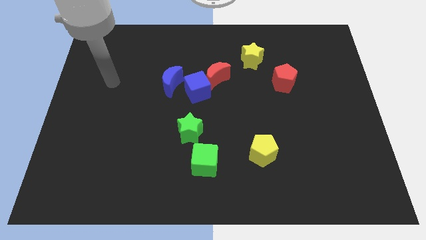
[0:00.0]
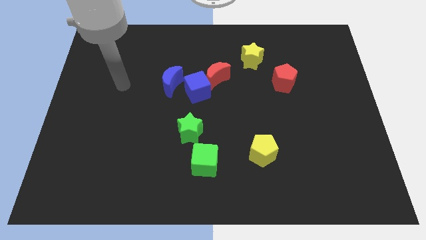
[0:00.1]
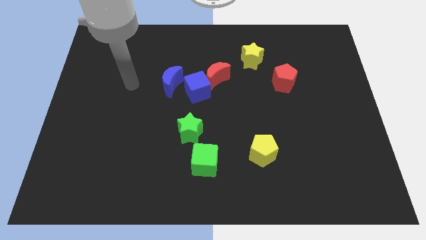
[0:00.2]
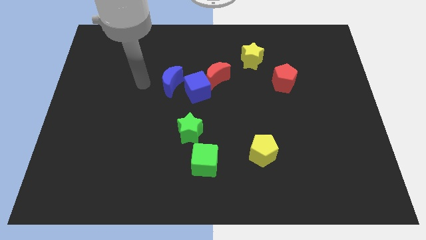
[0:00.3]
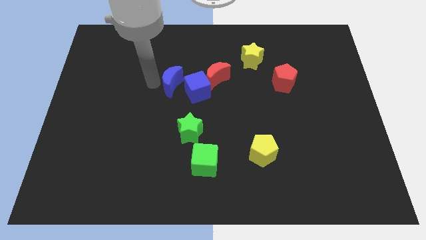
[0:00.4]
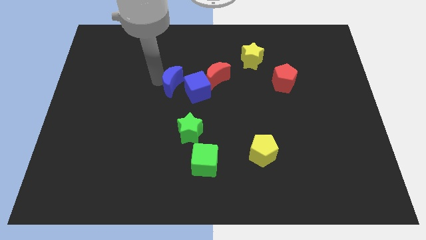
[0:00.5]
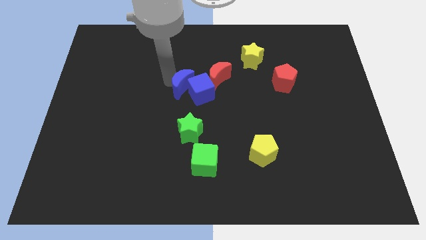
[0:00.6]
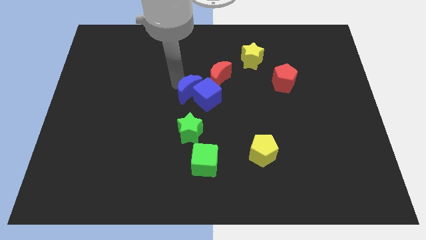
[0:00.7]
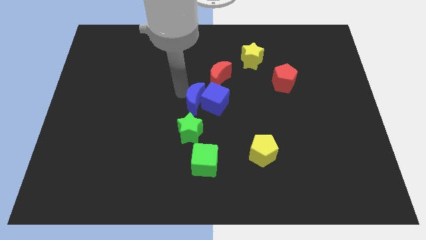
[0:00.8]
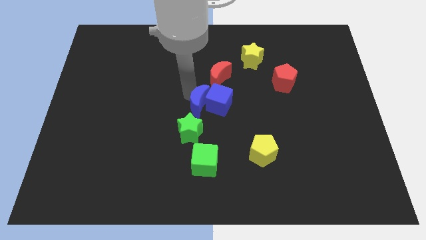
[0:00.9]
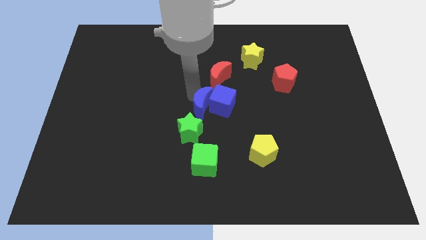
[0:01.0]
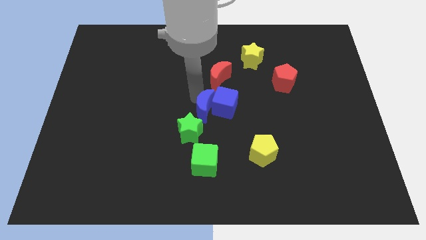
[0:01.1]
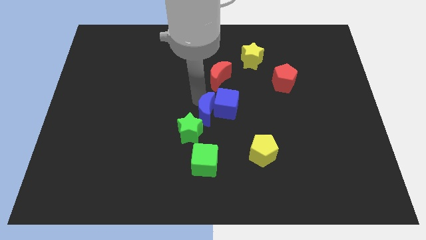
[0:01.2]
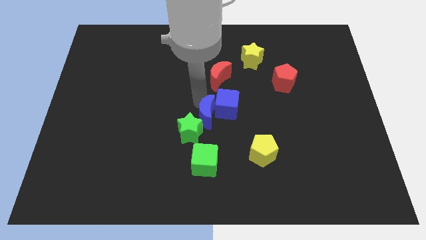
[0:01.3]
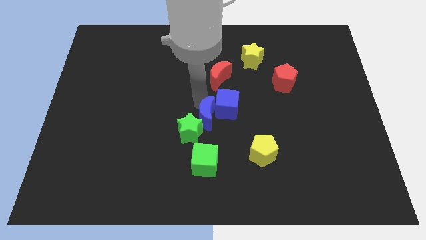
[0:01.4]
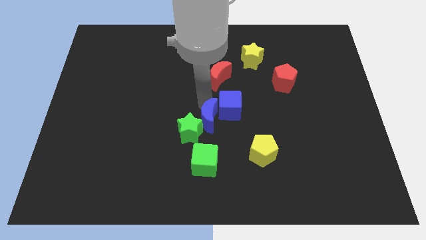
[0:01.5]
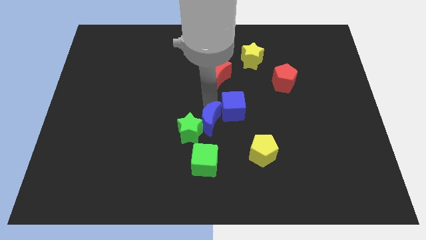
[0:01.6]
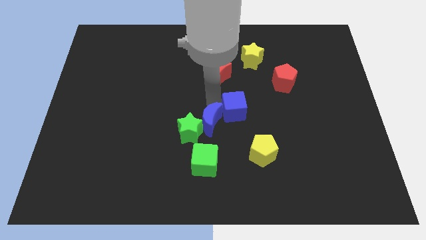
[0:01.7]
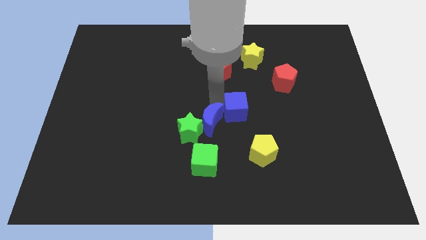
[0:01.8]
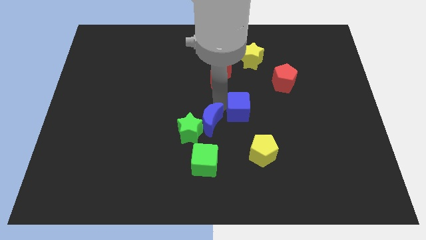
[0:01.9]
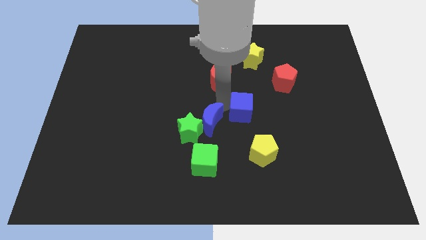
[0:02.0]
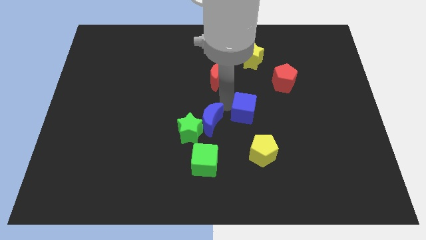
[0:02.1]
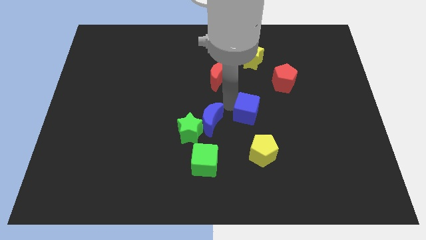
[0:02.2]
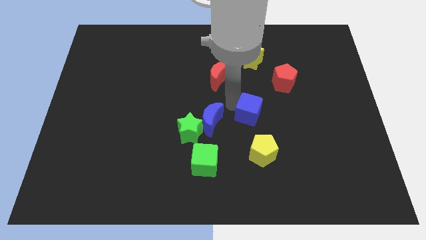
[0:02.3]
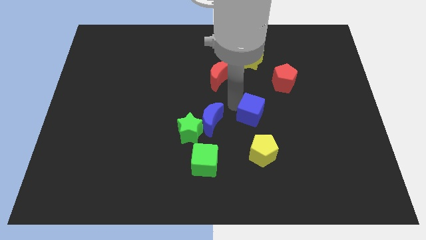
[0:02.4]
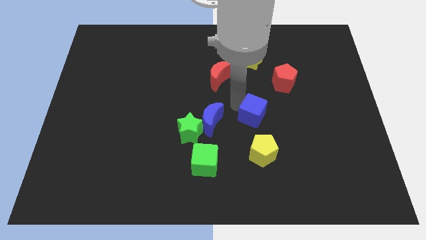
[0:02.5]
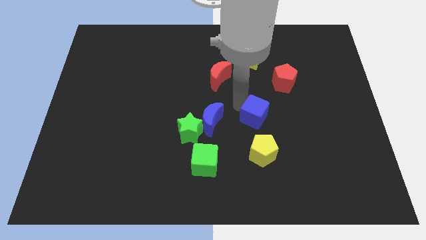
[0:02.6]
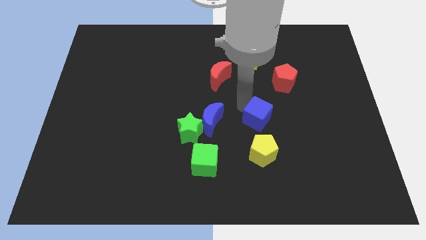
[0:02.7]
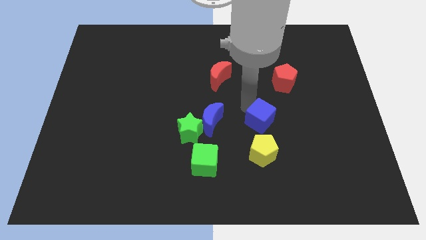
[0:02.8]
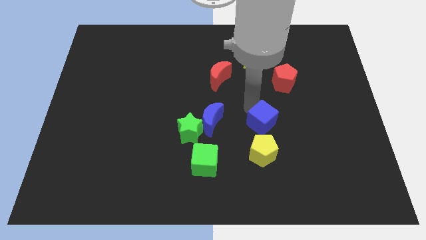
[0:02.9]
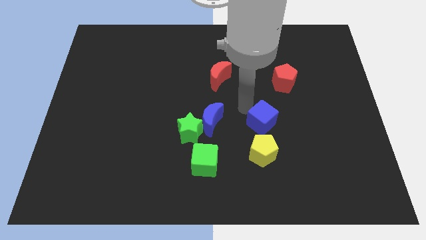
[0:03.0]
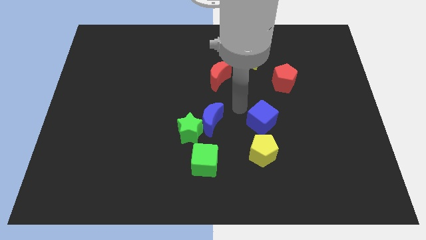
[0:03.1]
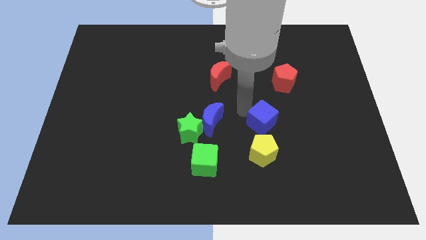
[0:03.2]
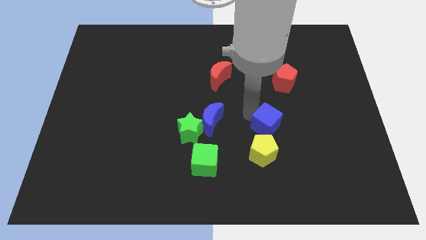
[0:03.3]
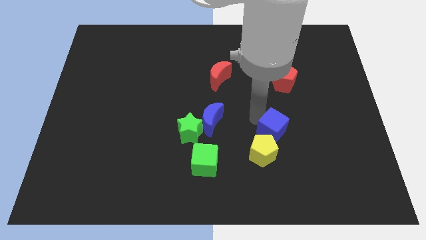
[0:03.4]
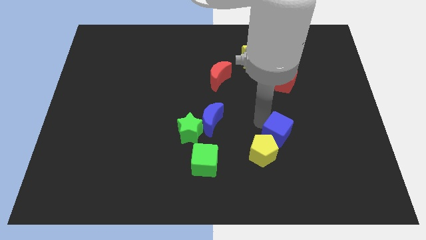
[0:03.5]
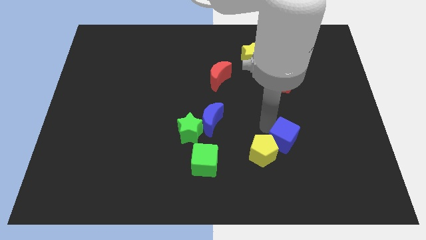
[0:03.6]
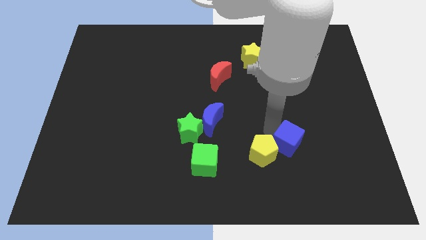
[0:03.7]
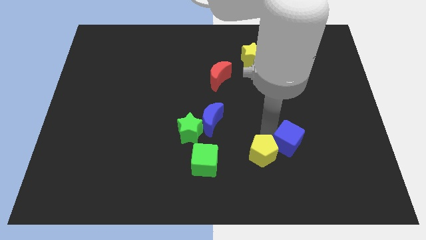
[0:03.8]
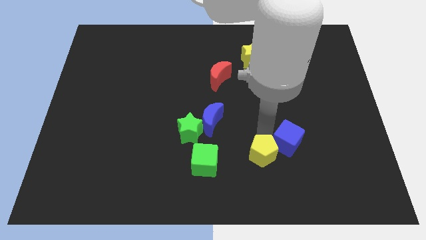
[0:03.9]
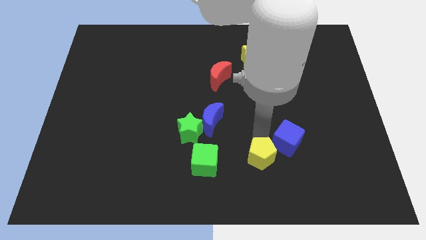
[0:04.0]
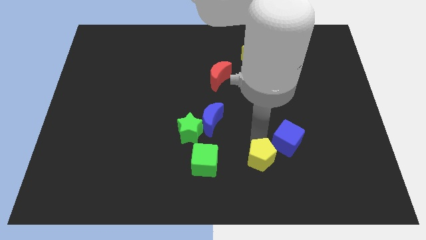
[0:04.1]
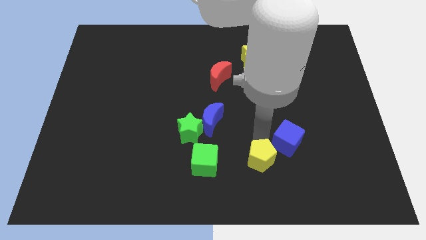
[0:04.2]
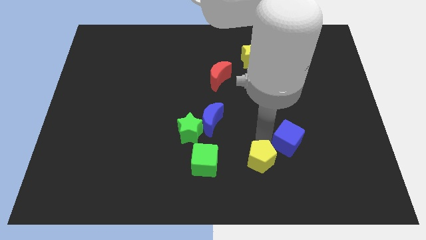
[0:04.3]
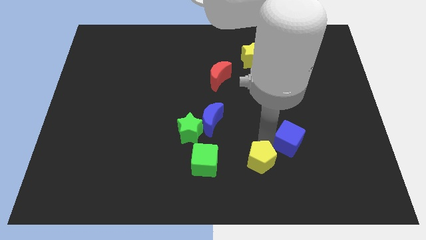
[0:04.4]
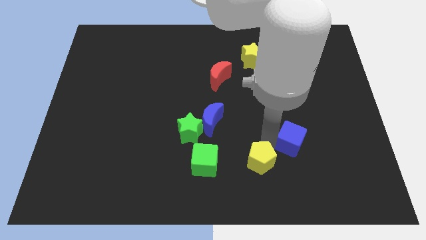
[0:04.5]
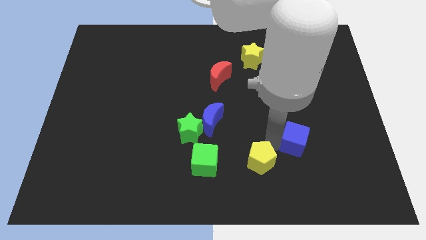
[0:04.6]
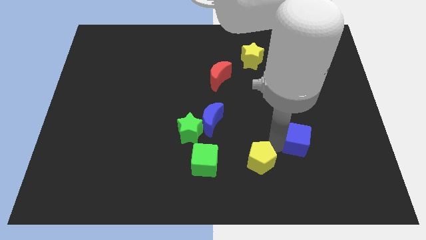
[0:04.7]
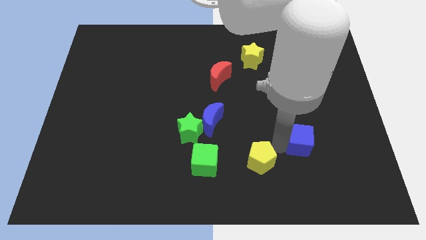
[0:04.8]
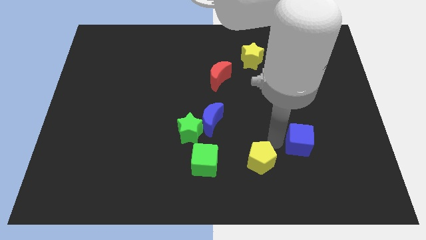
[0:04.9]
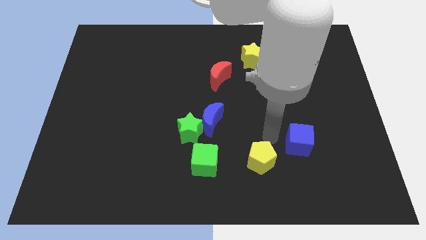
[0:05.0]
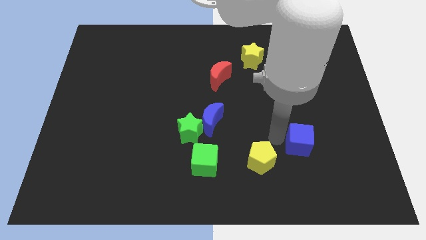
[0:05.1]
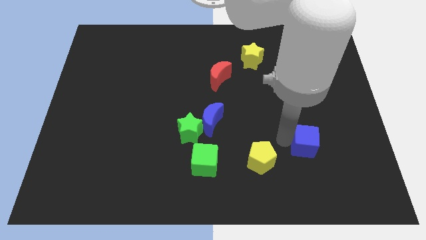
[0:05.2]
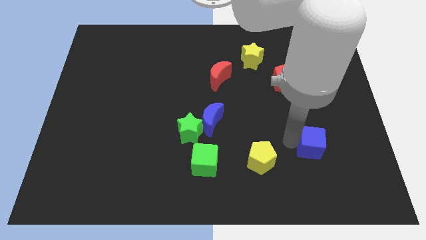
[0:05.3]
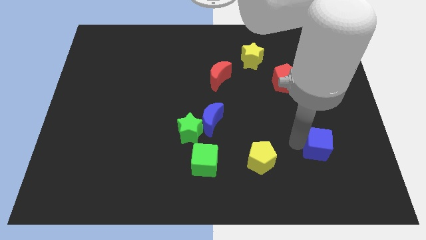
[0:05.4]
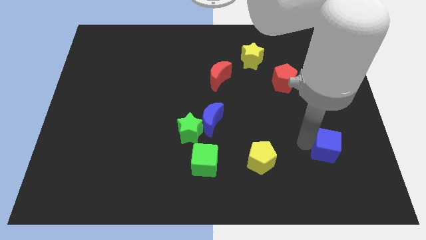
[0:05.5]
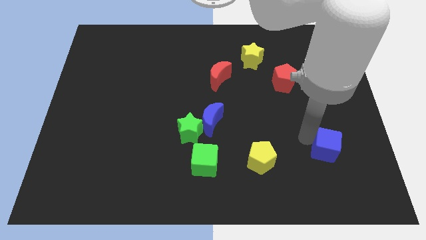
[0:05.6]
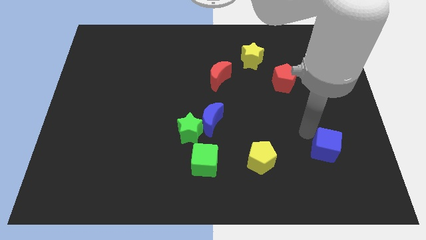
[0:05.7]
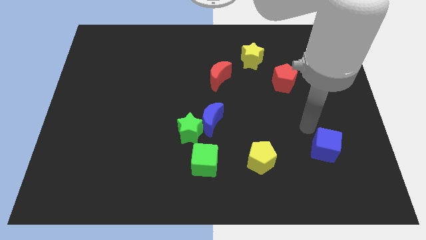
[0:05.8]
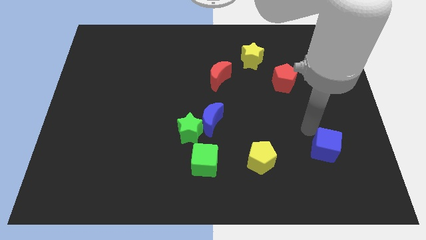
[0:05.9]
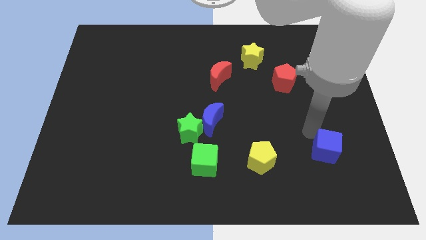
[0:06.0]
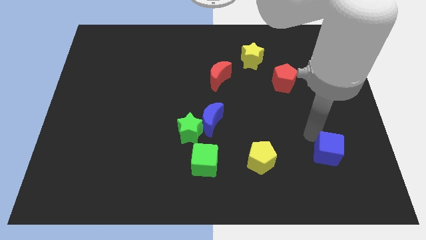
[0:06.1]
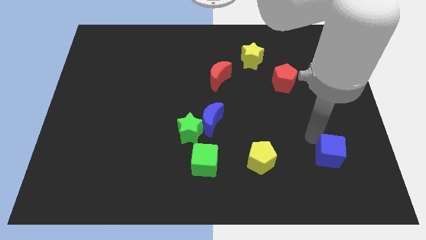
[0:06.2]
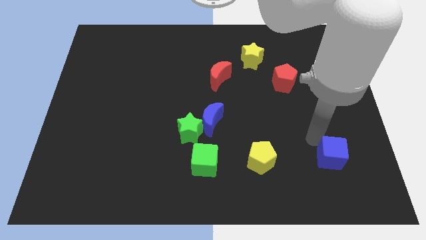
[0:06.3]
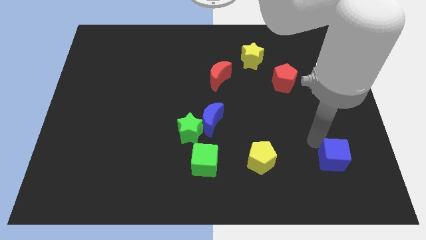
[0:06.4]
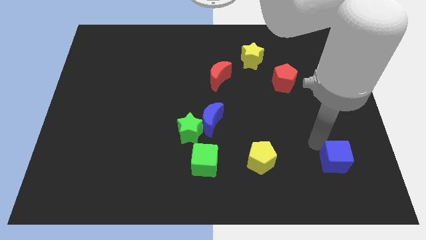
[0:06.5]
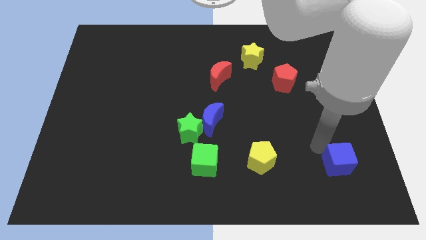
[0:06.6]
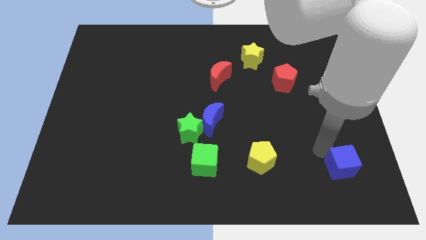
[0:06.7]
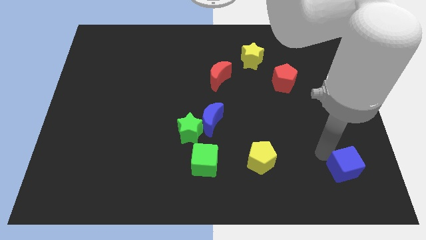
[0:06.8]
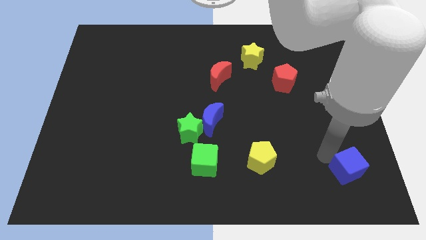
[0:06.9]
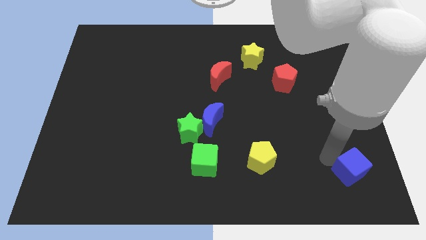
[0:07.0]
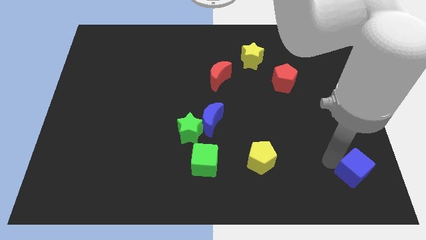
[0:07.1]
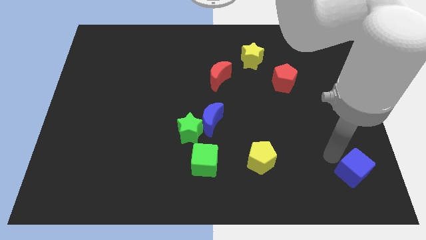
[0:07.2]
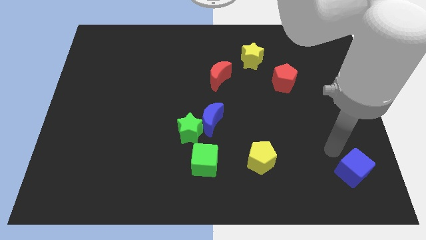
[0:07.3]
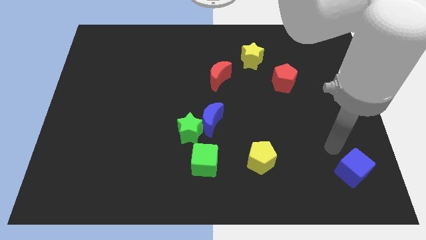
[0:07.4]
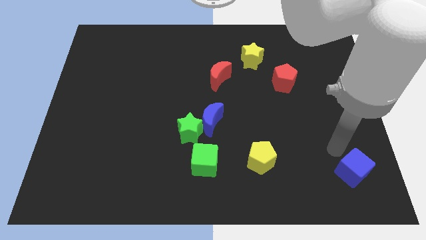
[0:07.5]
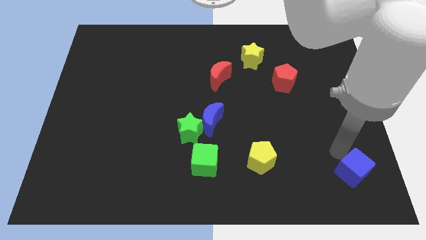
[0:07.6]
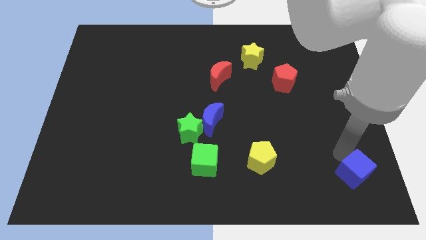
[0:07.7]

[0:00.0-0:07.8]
move the blue cube to the bottom right
